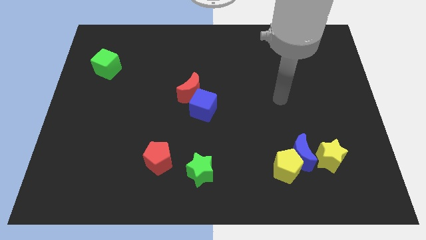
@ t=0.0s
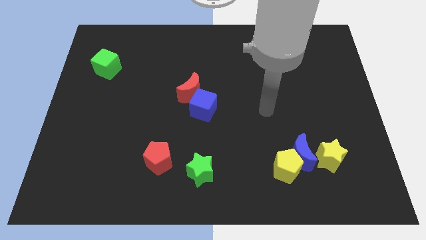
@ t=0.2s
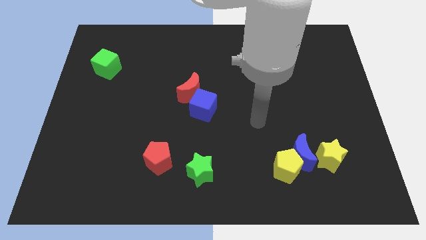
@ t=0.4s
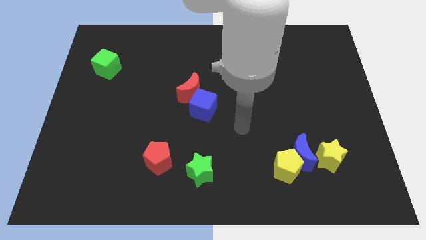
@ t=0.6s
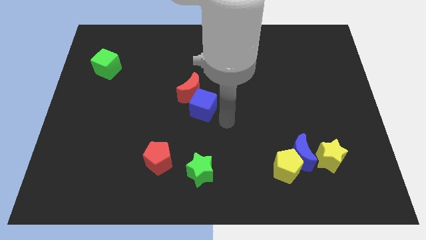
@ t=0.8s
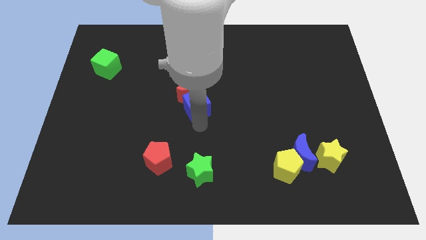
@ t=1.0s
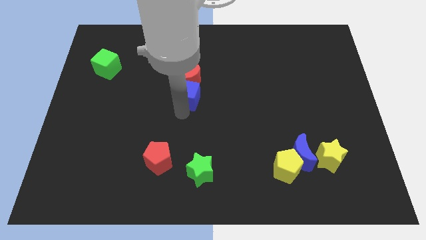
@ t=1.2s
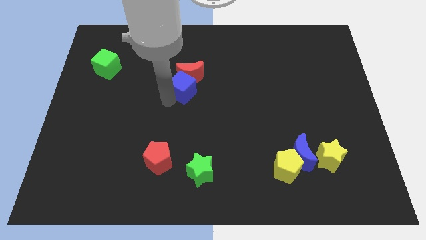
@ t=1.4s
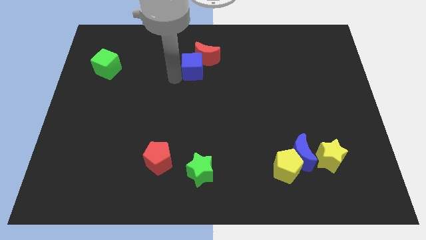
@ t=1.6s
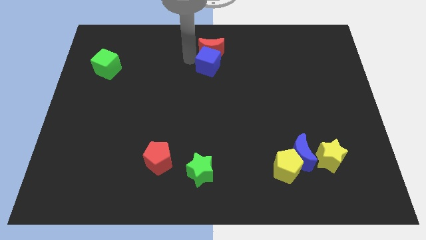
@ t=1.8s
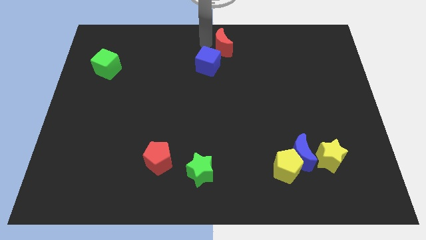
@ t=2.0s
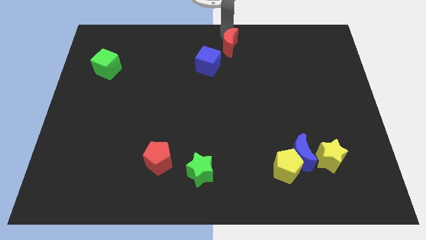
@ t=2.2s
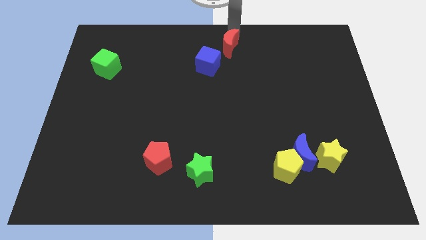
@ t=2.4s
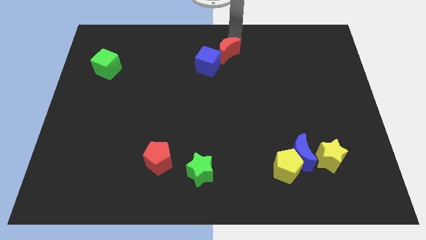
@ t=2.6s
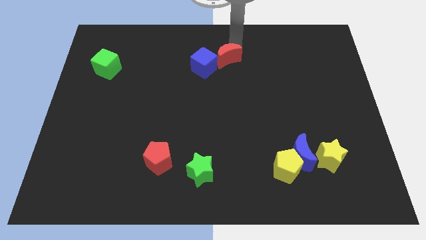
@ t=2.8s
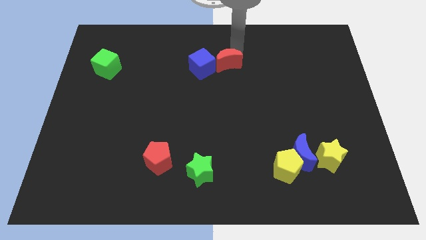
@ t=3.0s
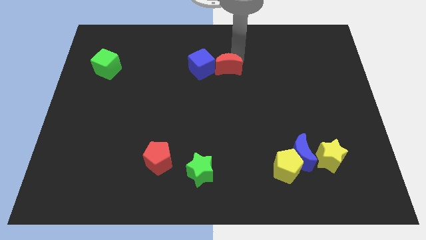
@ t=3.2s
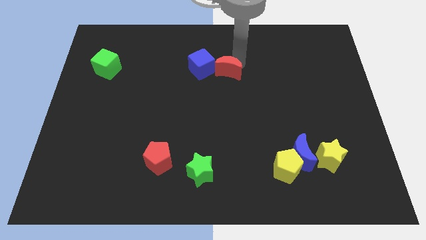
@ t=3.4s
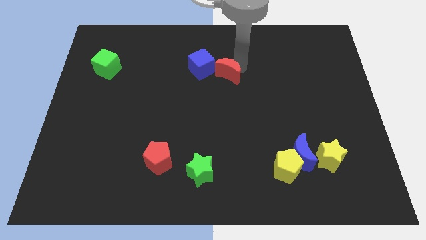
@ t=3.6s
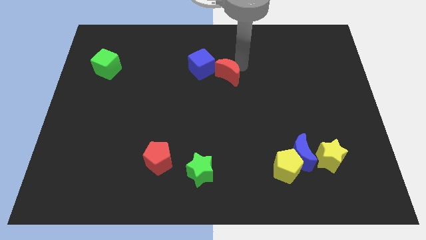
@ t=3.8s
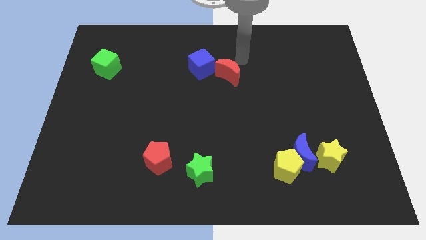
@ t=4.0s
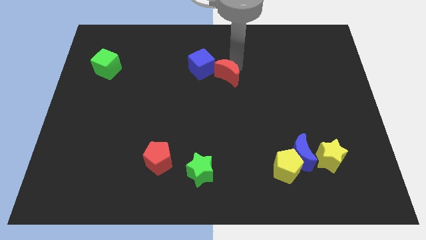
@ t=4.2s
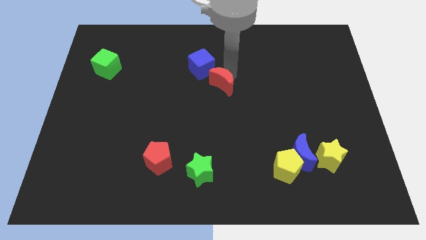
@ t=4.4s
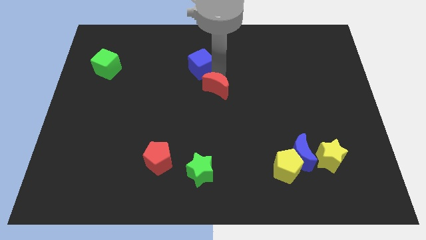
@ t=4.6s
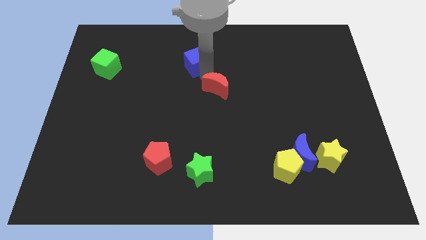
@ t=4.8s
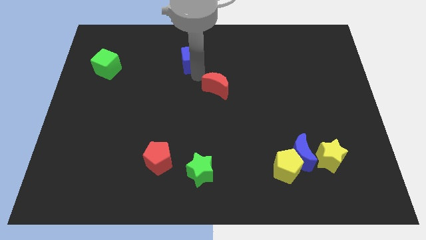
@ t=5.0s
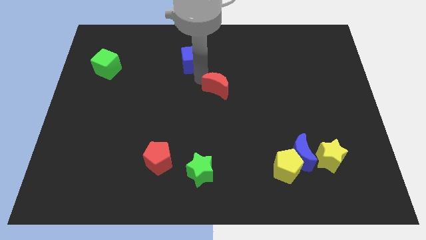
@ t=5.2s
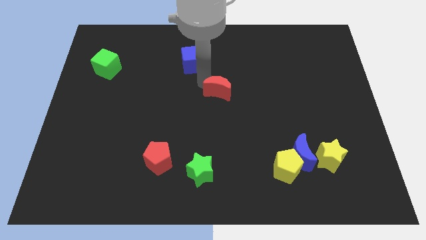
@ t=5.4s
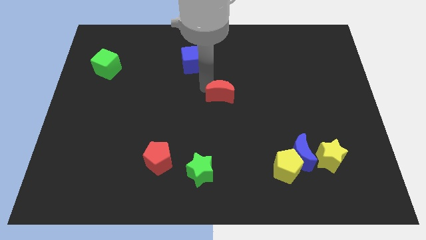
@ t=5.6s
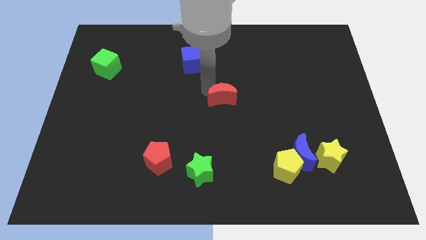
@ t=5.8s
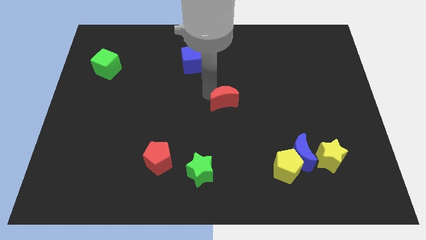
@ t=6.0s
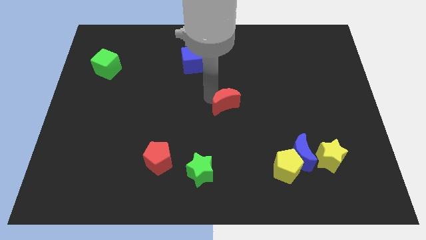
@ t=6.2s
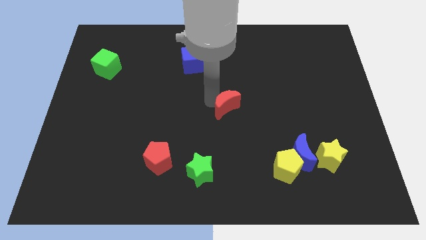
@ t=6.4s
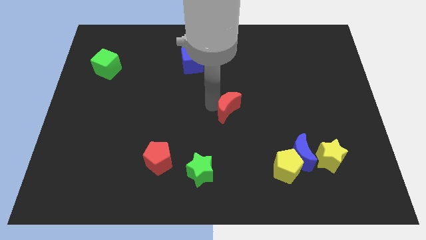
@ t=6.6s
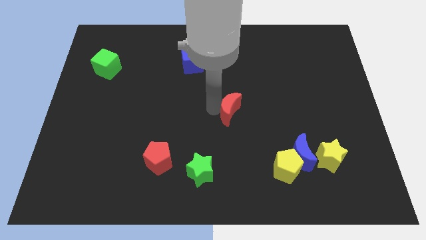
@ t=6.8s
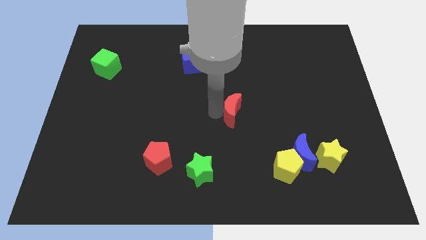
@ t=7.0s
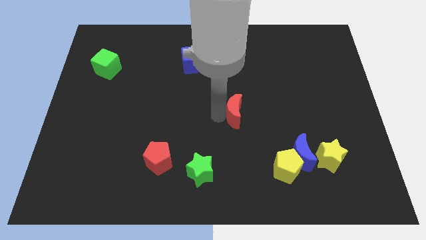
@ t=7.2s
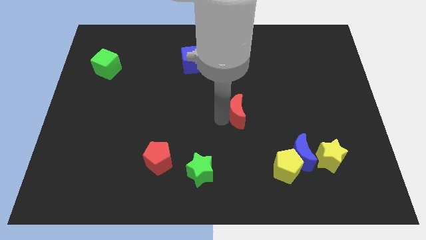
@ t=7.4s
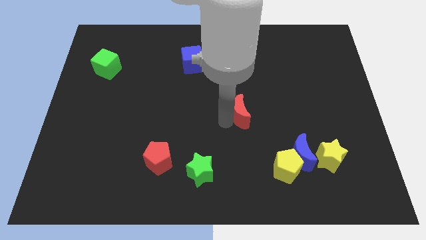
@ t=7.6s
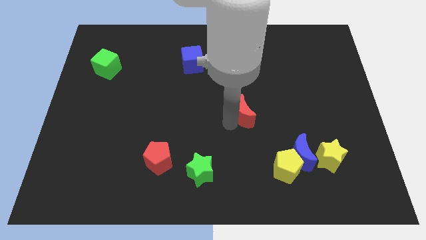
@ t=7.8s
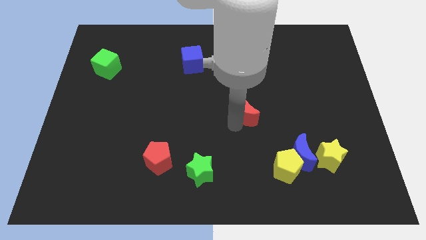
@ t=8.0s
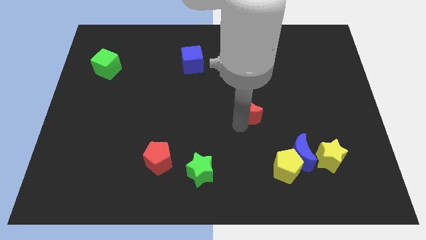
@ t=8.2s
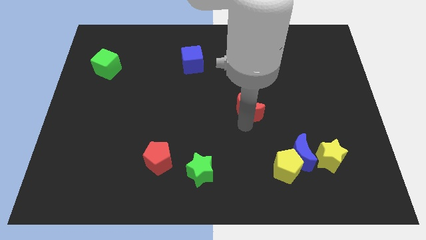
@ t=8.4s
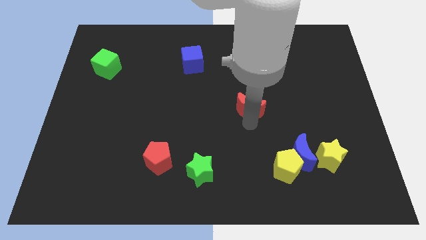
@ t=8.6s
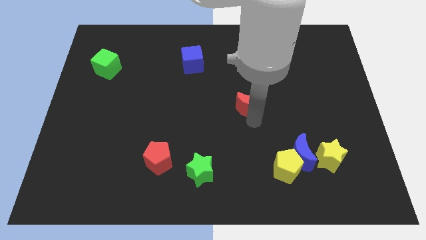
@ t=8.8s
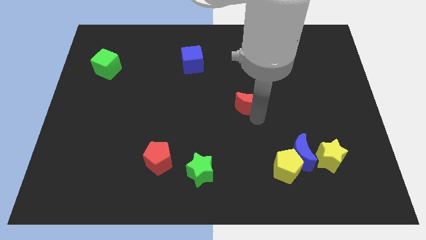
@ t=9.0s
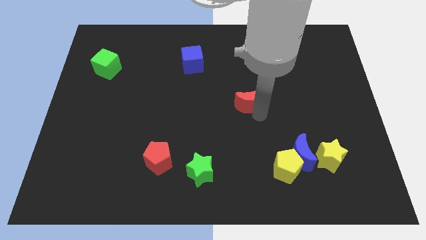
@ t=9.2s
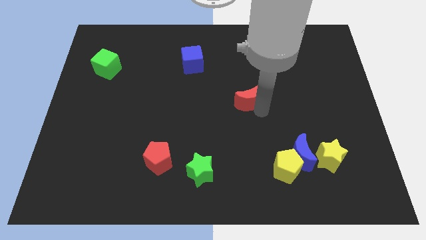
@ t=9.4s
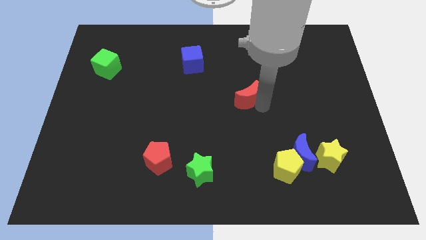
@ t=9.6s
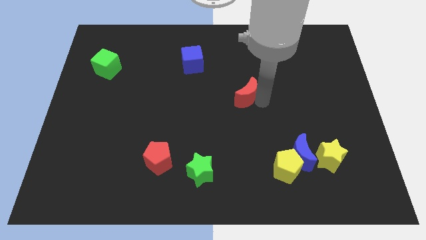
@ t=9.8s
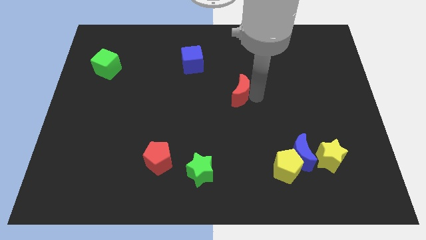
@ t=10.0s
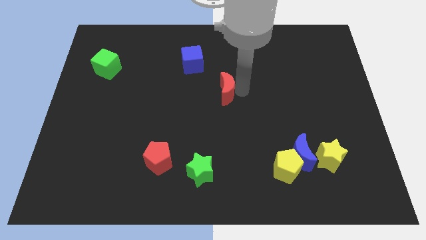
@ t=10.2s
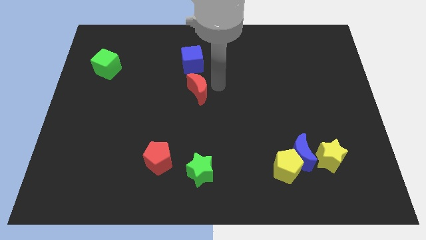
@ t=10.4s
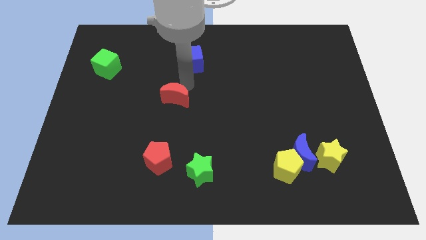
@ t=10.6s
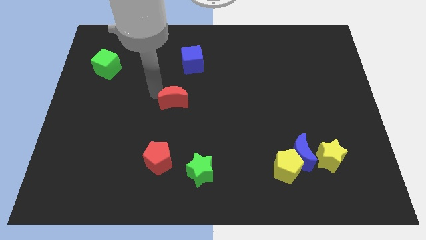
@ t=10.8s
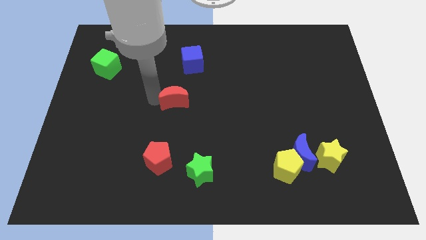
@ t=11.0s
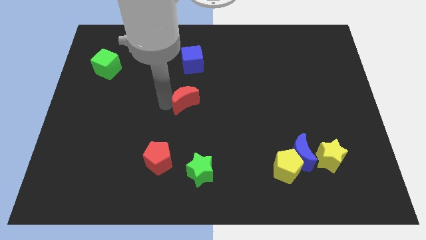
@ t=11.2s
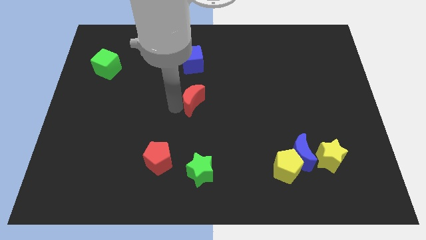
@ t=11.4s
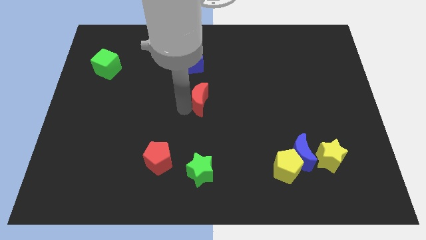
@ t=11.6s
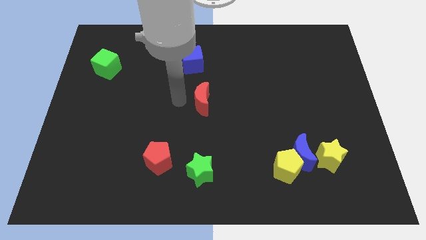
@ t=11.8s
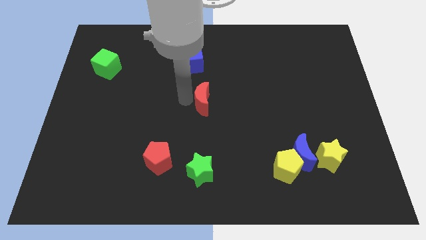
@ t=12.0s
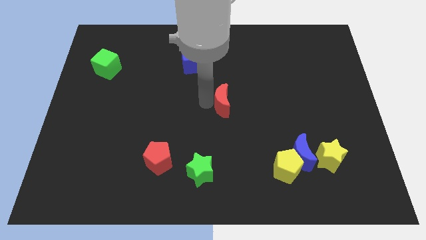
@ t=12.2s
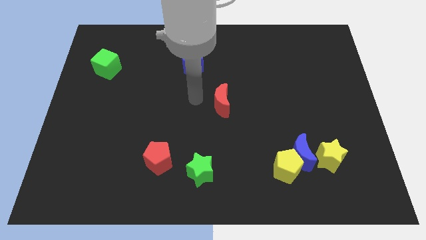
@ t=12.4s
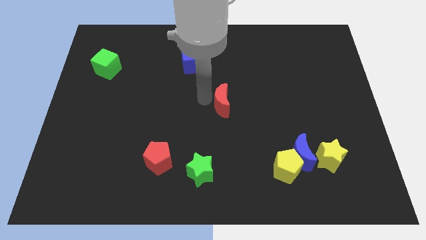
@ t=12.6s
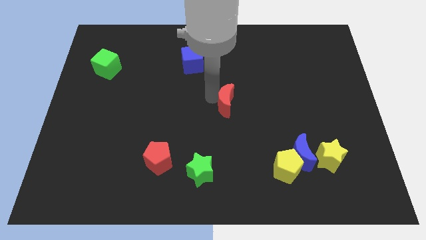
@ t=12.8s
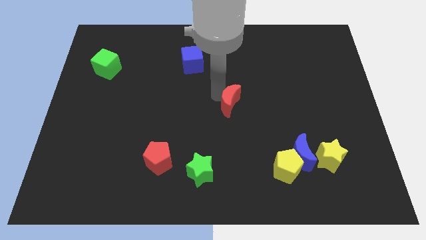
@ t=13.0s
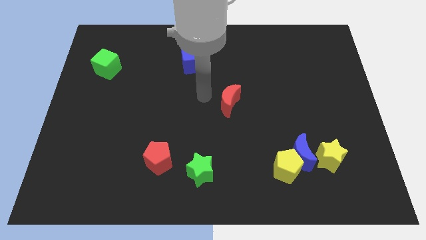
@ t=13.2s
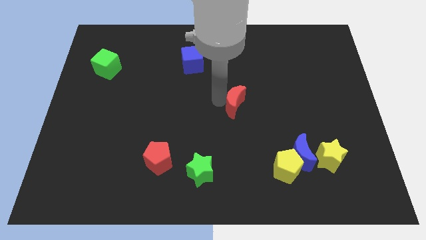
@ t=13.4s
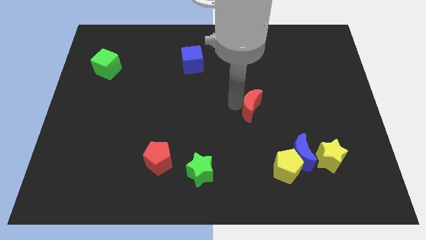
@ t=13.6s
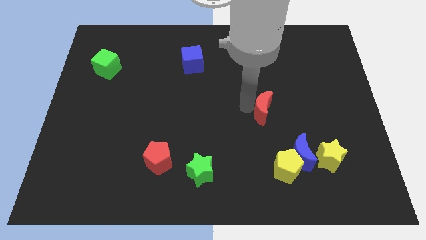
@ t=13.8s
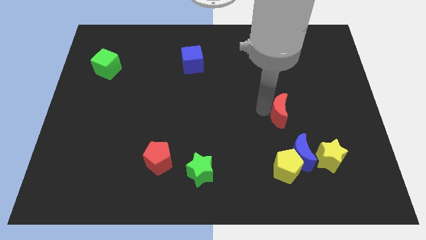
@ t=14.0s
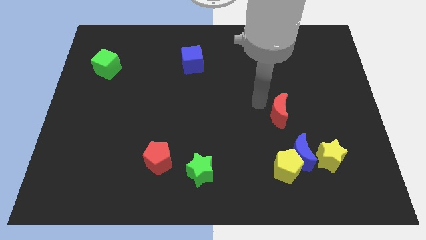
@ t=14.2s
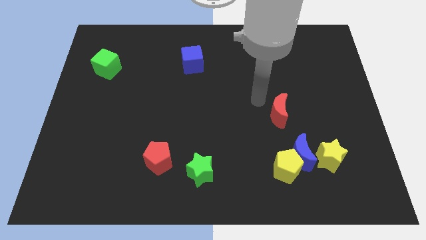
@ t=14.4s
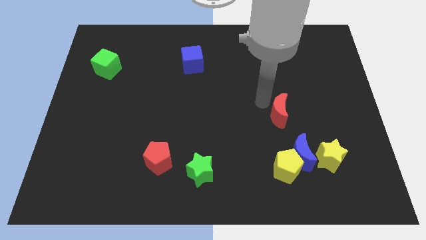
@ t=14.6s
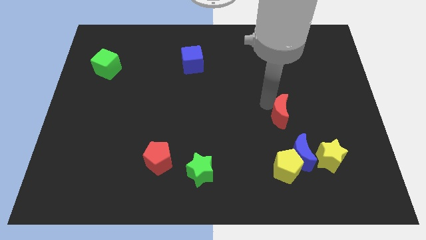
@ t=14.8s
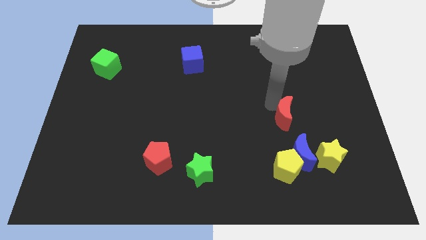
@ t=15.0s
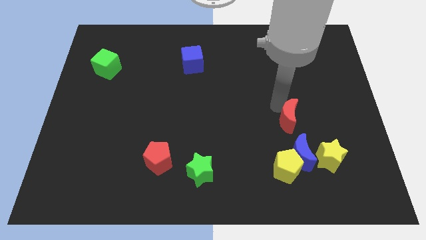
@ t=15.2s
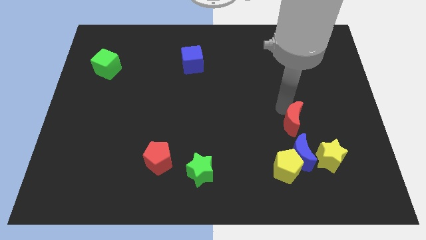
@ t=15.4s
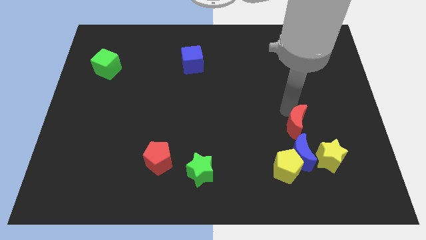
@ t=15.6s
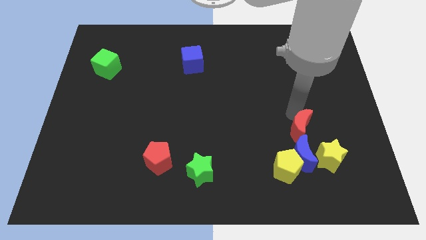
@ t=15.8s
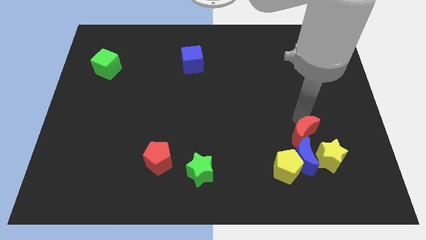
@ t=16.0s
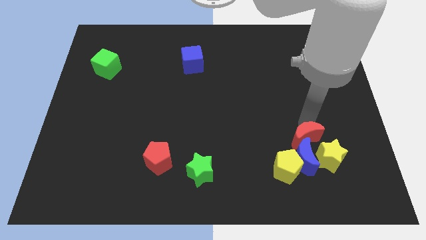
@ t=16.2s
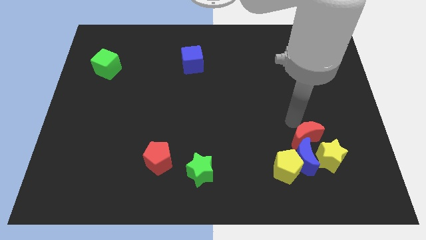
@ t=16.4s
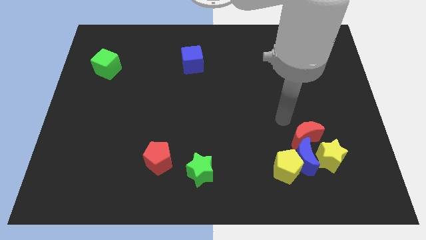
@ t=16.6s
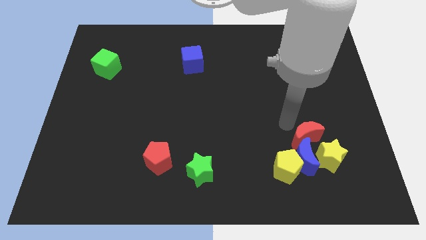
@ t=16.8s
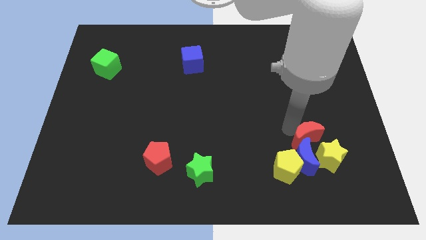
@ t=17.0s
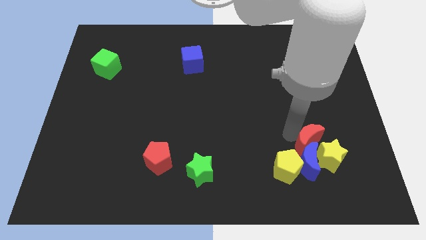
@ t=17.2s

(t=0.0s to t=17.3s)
put the red moon towards the yellow star
